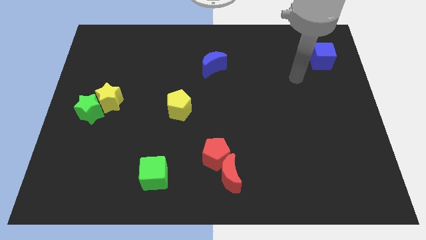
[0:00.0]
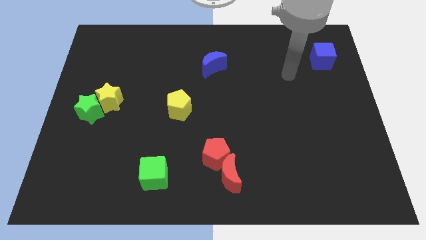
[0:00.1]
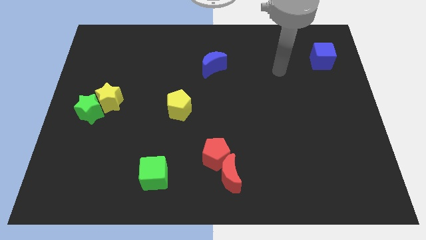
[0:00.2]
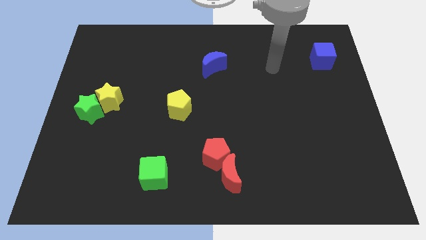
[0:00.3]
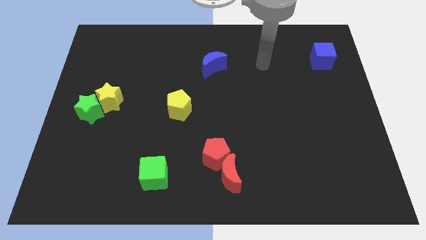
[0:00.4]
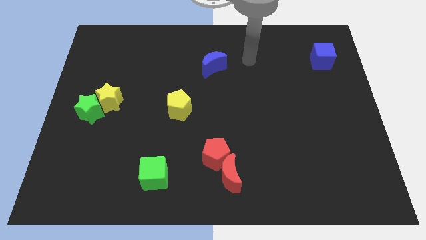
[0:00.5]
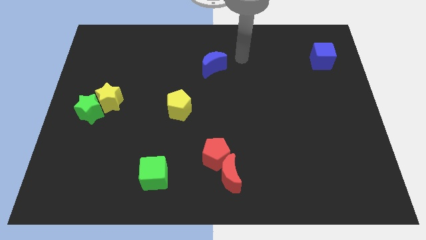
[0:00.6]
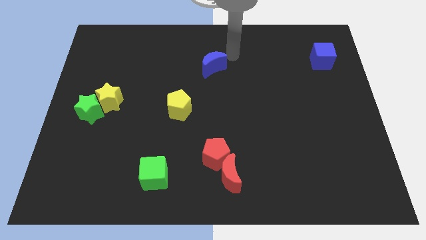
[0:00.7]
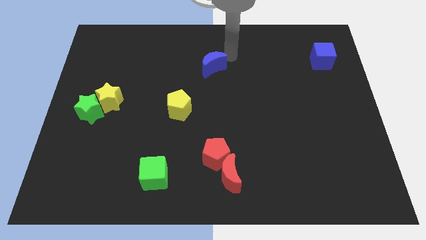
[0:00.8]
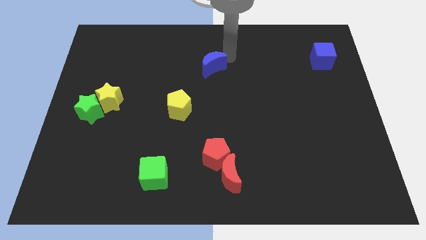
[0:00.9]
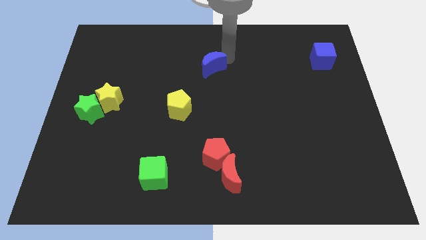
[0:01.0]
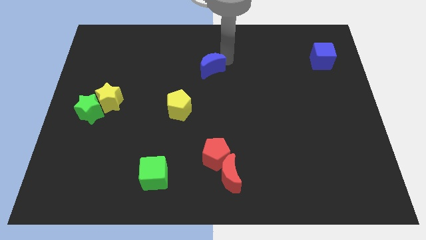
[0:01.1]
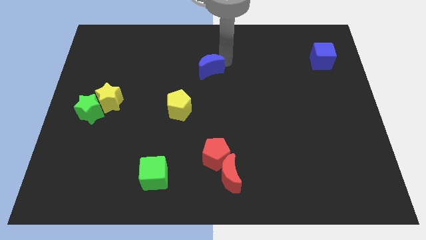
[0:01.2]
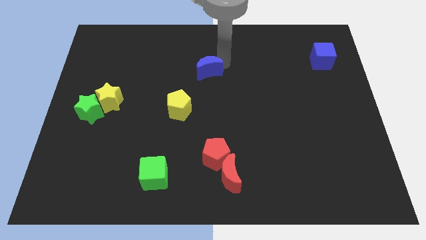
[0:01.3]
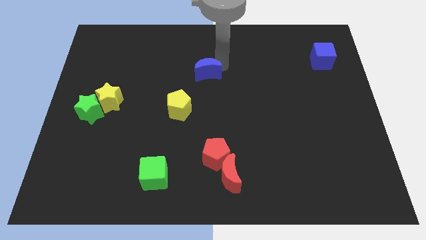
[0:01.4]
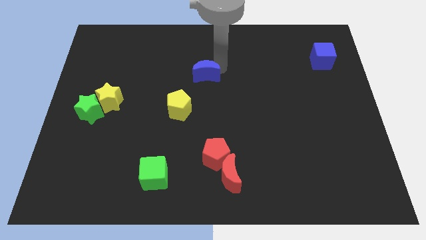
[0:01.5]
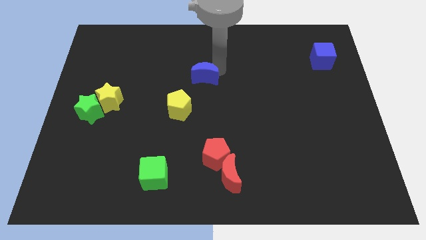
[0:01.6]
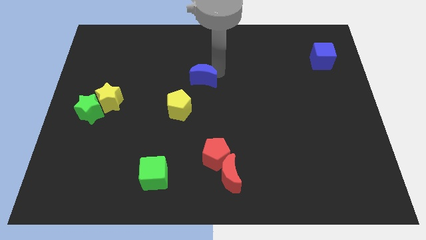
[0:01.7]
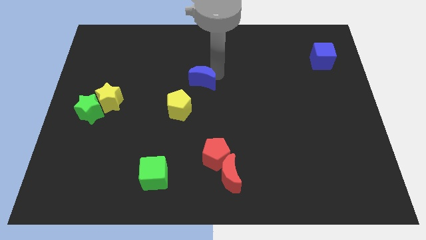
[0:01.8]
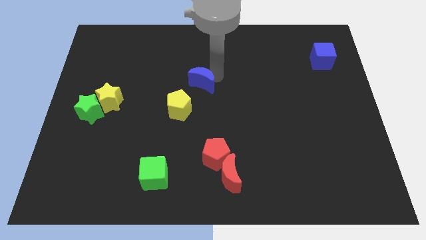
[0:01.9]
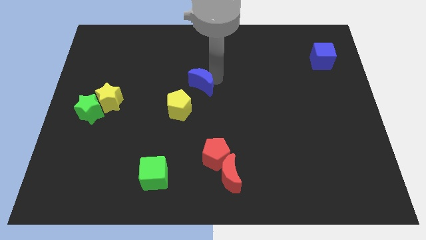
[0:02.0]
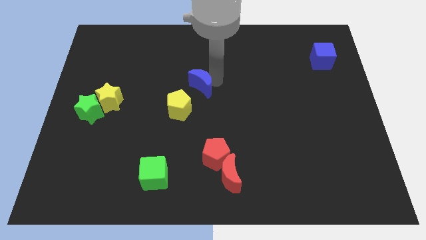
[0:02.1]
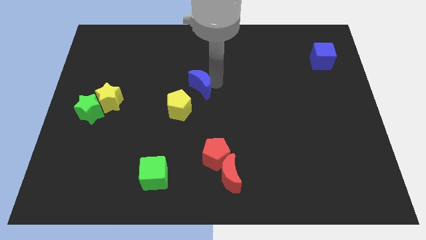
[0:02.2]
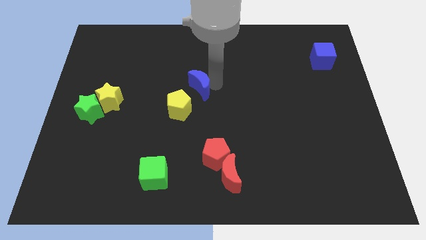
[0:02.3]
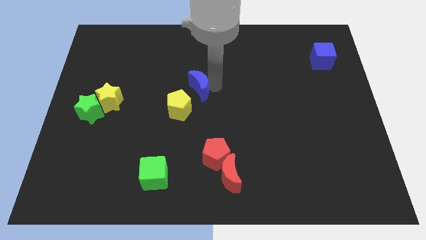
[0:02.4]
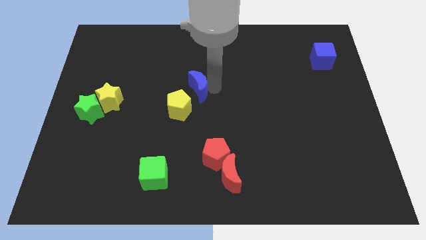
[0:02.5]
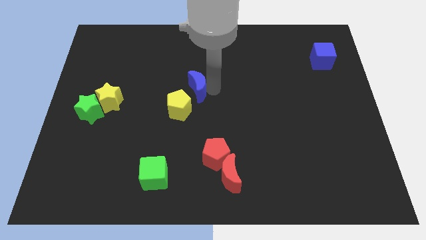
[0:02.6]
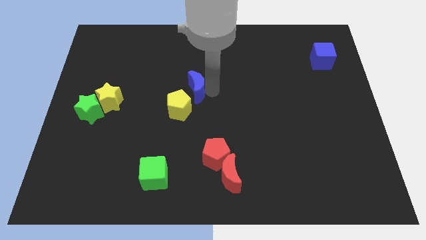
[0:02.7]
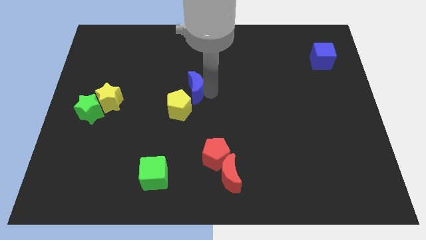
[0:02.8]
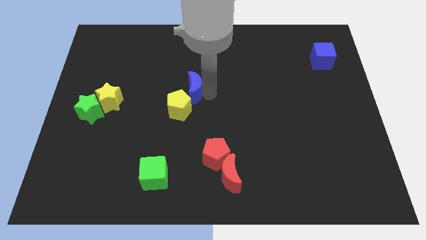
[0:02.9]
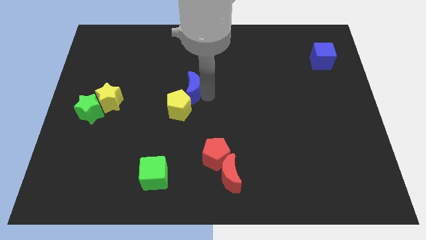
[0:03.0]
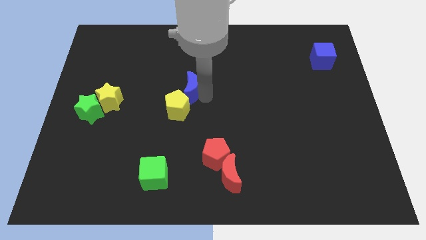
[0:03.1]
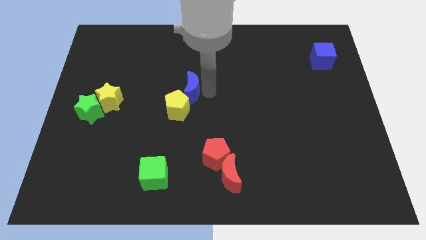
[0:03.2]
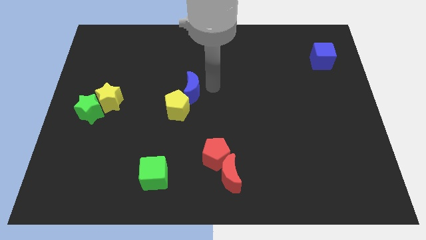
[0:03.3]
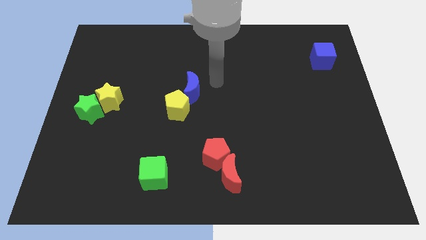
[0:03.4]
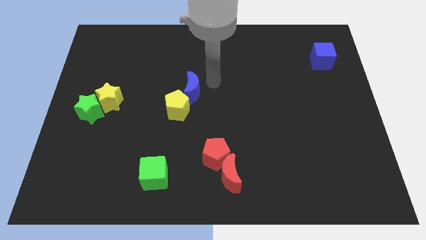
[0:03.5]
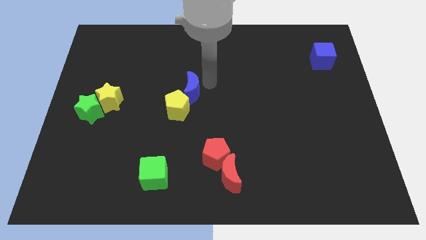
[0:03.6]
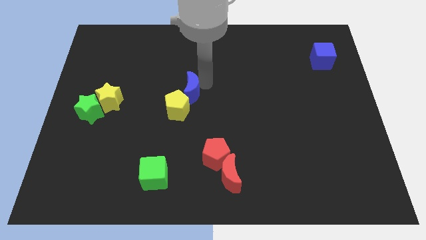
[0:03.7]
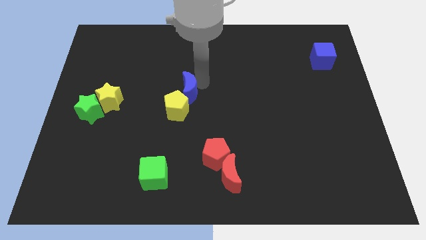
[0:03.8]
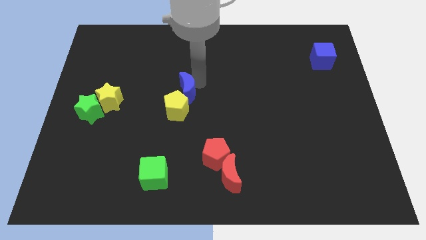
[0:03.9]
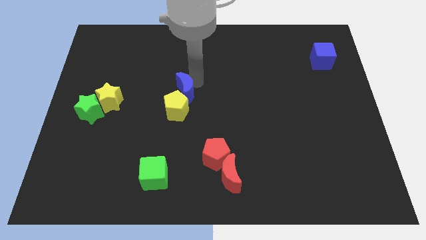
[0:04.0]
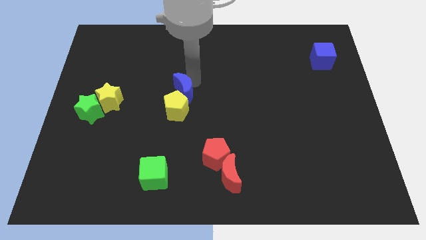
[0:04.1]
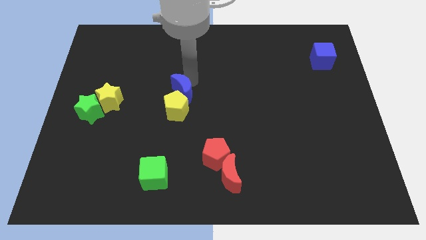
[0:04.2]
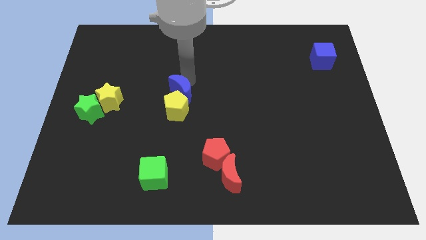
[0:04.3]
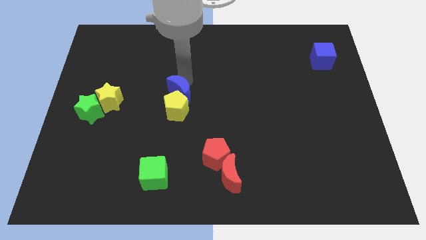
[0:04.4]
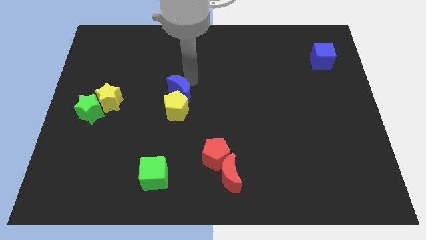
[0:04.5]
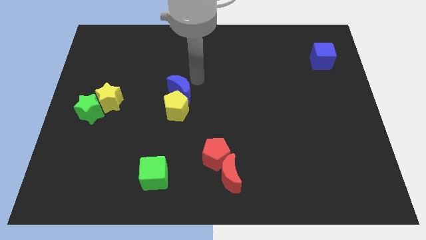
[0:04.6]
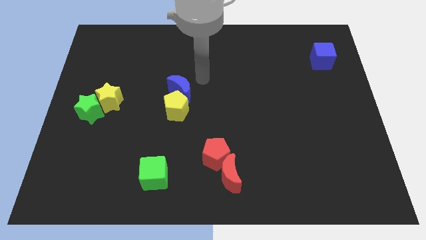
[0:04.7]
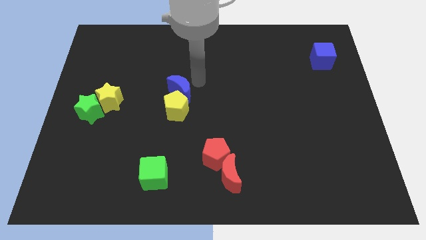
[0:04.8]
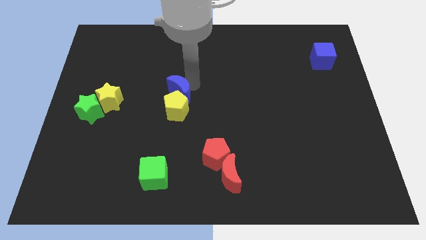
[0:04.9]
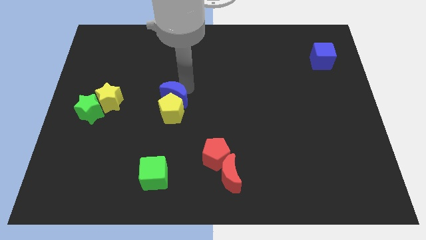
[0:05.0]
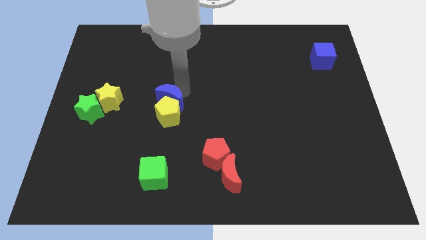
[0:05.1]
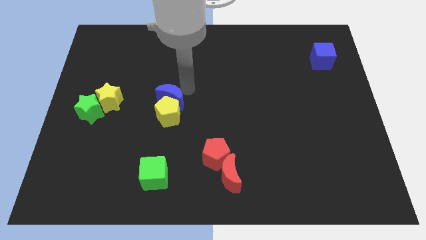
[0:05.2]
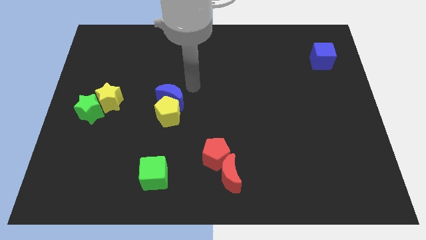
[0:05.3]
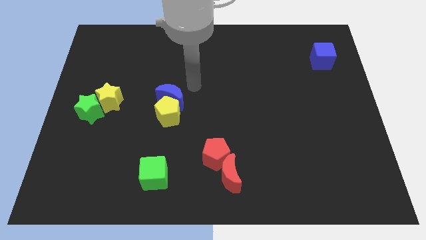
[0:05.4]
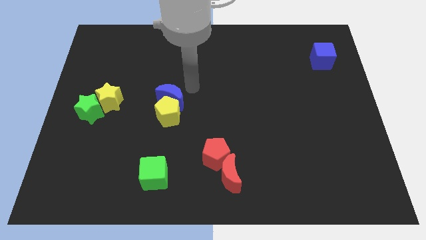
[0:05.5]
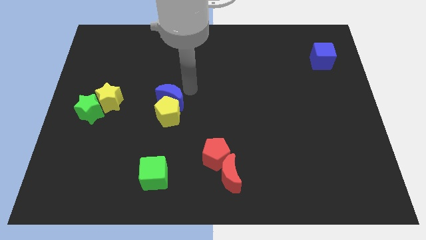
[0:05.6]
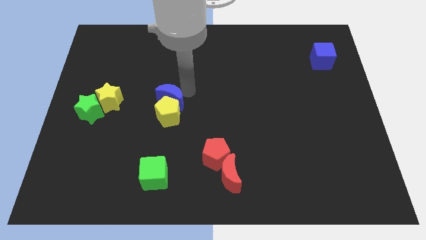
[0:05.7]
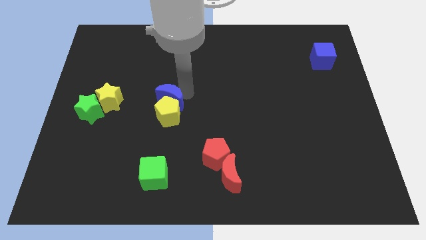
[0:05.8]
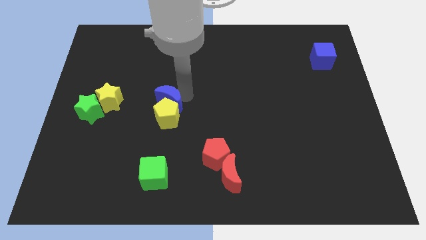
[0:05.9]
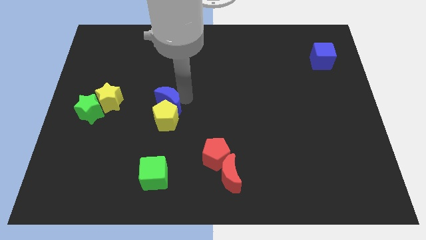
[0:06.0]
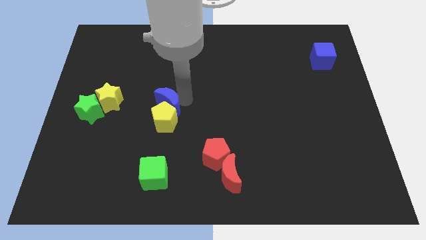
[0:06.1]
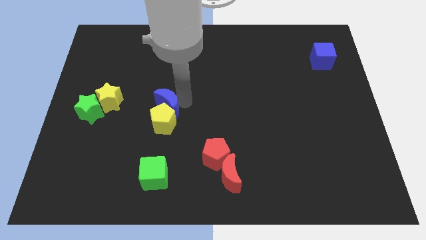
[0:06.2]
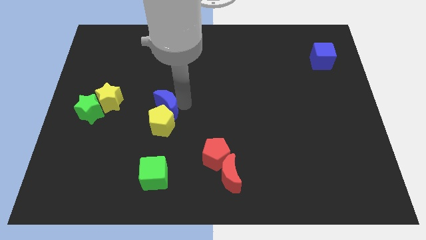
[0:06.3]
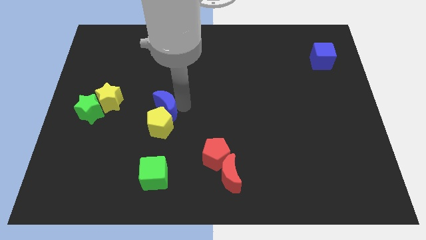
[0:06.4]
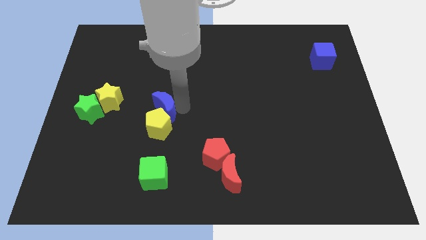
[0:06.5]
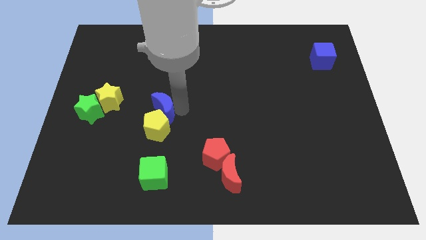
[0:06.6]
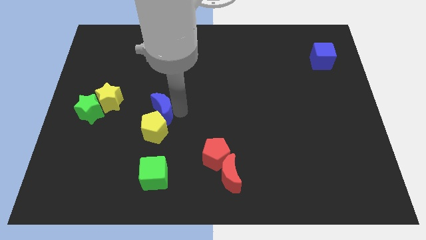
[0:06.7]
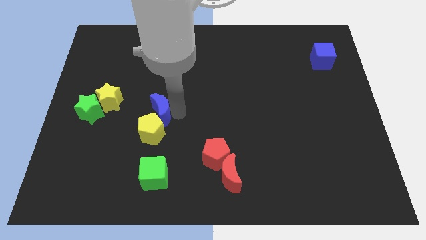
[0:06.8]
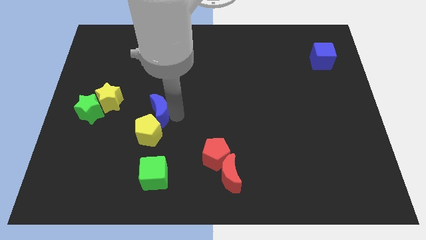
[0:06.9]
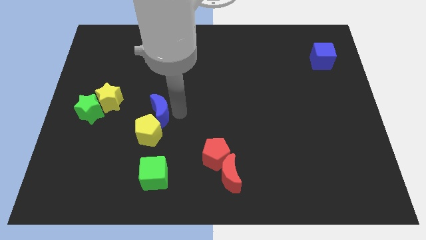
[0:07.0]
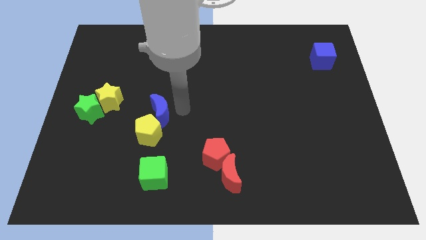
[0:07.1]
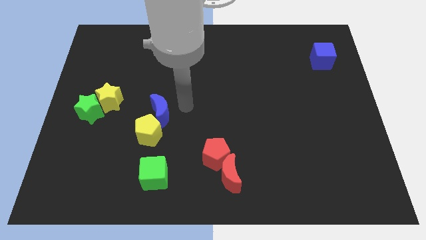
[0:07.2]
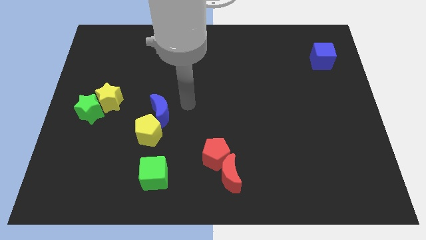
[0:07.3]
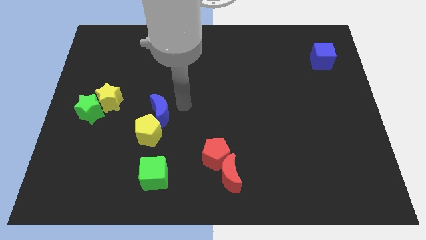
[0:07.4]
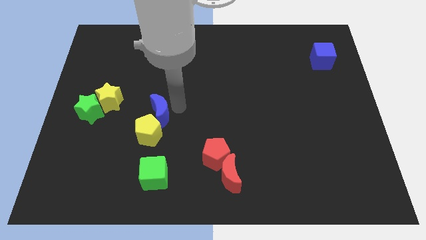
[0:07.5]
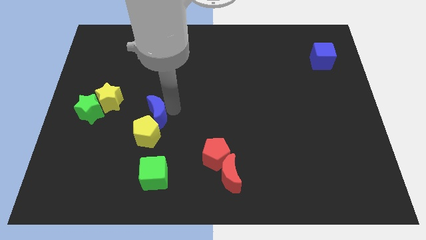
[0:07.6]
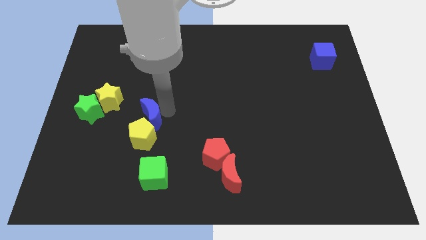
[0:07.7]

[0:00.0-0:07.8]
move the blue moon downwards and left

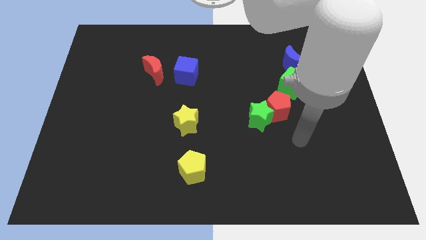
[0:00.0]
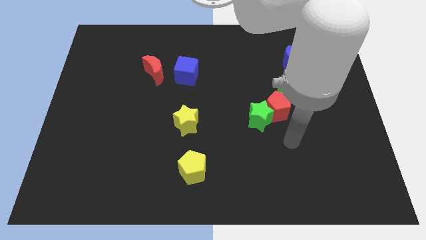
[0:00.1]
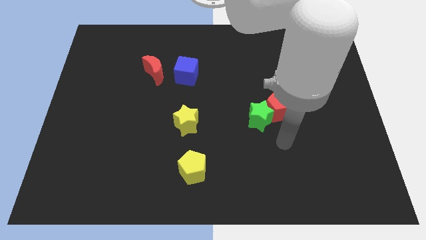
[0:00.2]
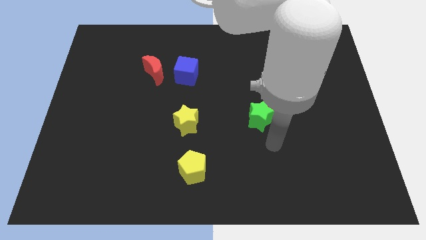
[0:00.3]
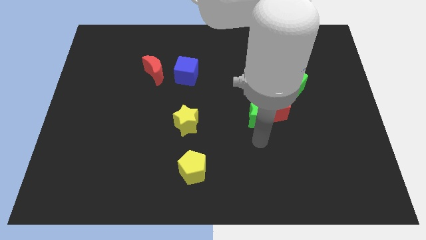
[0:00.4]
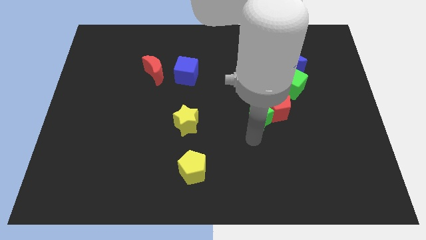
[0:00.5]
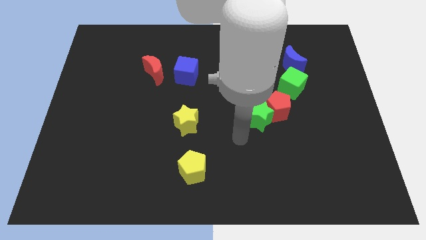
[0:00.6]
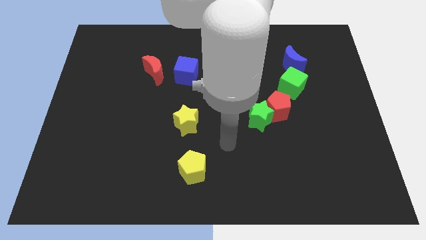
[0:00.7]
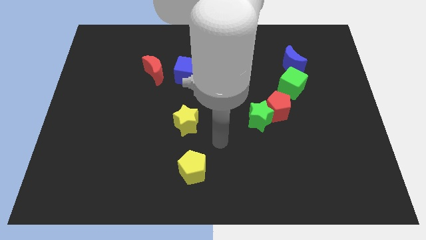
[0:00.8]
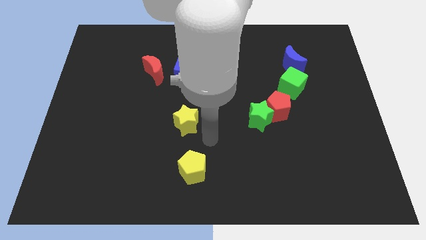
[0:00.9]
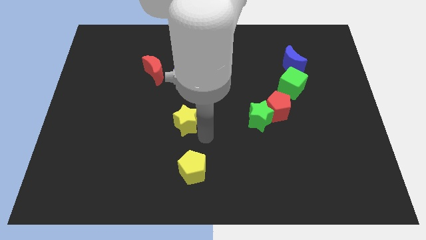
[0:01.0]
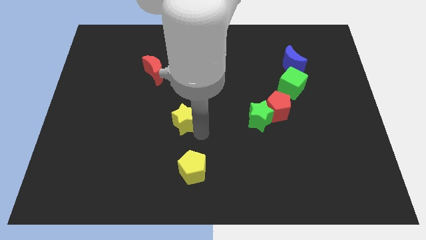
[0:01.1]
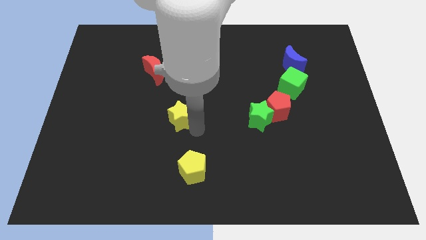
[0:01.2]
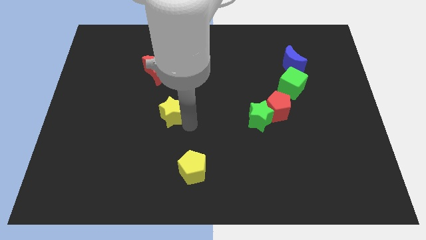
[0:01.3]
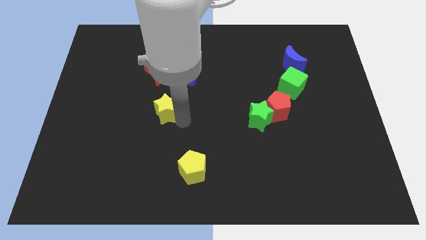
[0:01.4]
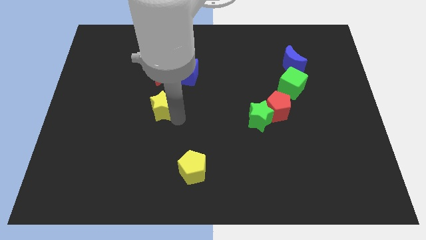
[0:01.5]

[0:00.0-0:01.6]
slightly push the yellow star up and to the left diagonally
